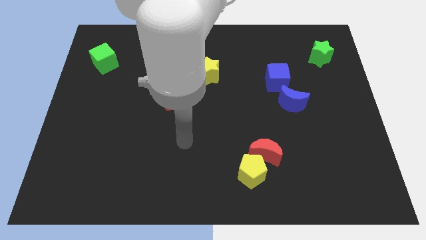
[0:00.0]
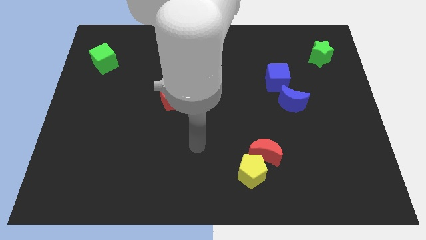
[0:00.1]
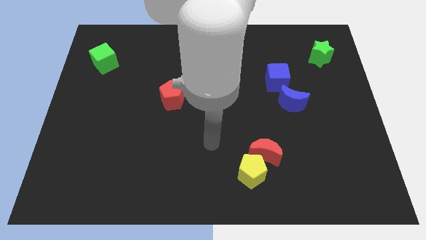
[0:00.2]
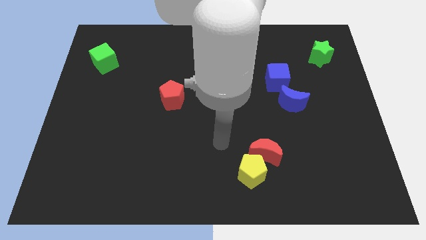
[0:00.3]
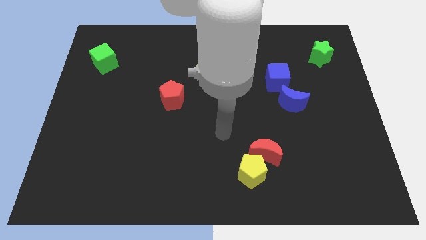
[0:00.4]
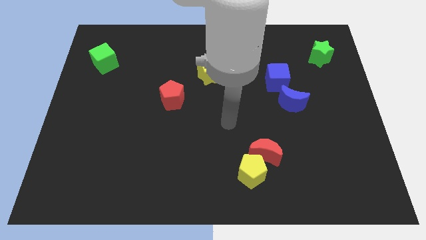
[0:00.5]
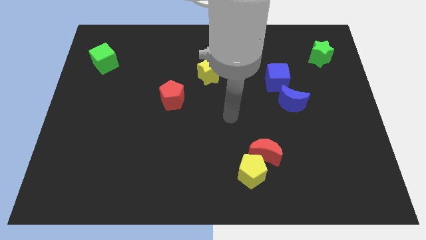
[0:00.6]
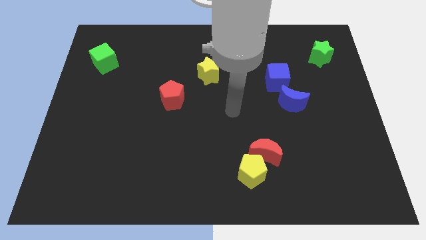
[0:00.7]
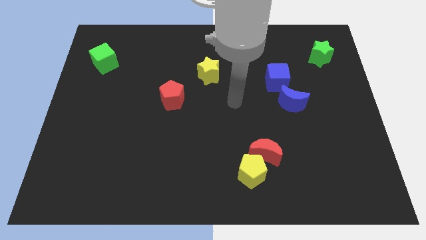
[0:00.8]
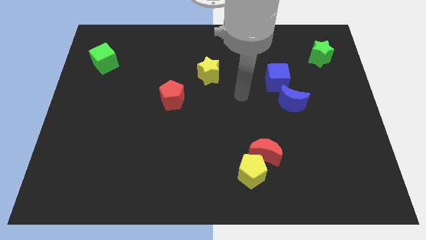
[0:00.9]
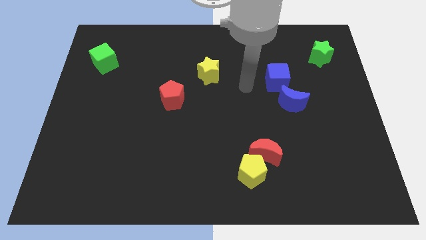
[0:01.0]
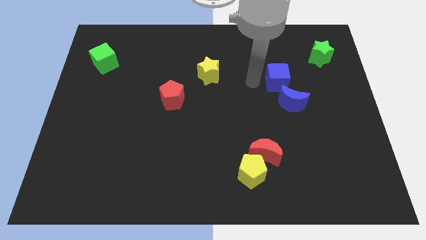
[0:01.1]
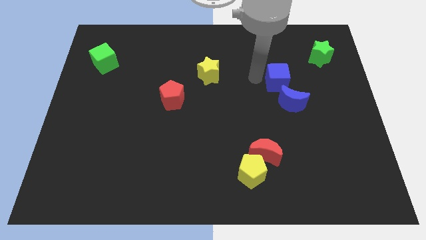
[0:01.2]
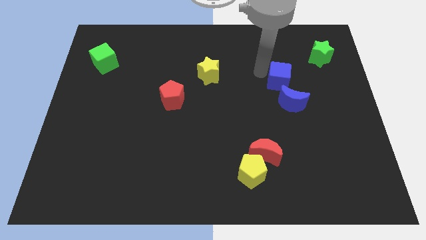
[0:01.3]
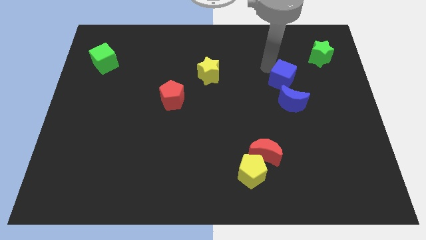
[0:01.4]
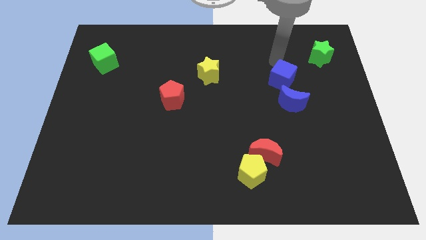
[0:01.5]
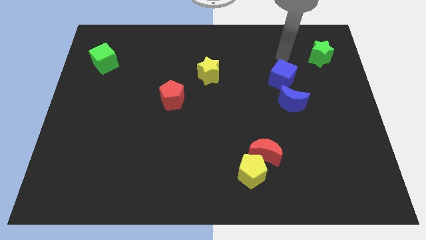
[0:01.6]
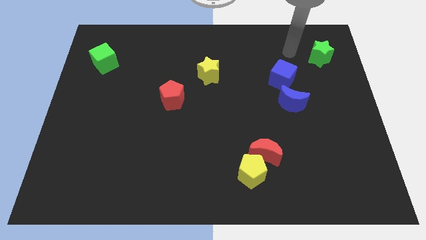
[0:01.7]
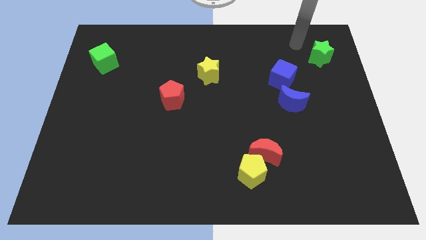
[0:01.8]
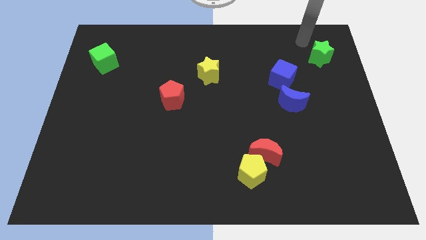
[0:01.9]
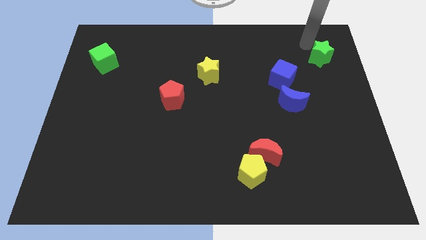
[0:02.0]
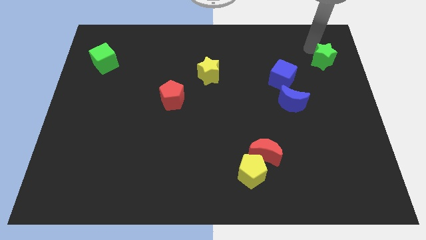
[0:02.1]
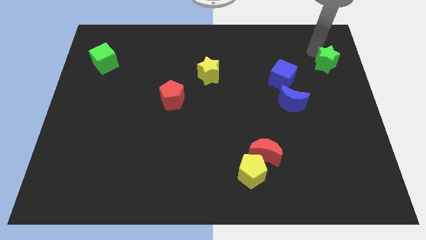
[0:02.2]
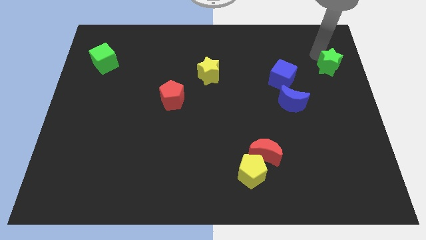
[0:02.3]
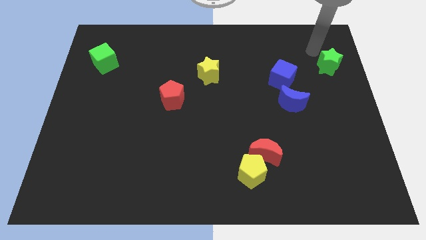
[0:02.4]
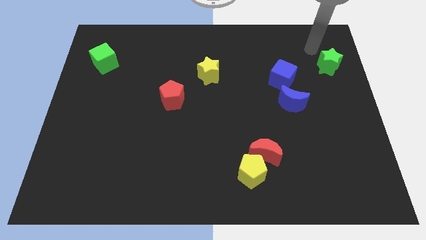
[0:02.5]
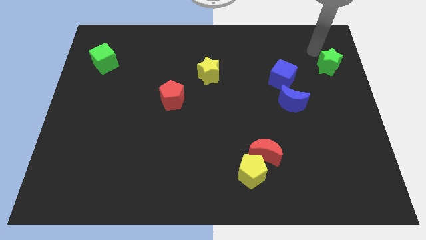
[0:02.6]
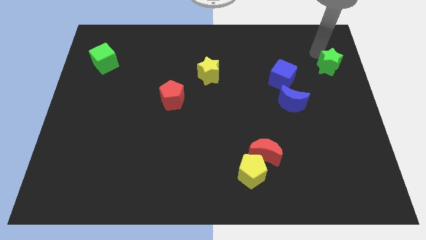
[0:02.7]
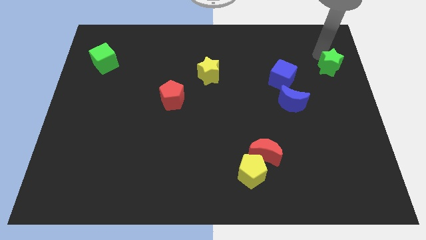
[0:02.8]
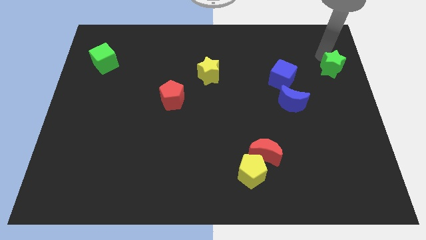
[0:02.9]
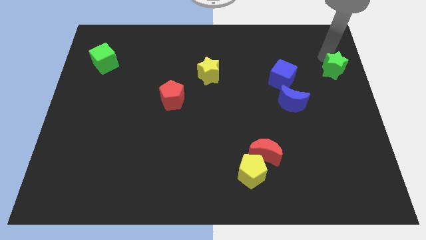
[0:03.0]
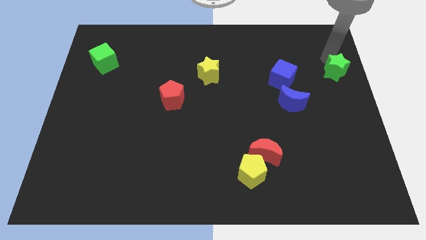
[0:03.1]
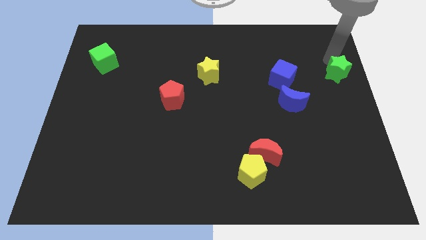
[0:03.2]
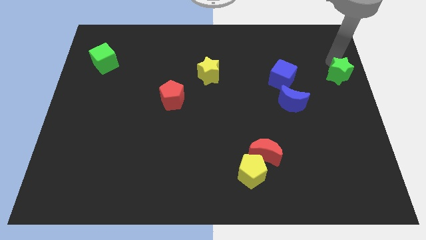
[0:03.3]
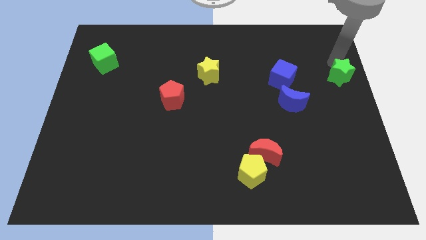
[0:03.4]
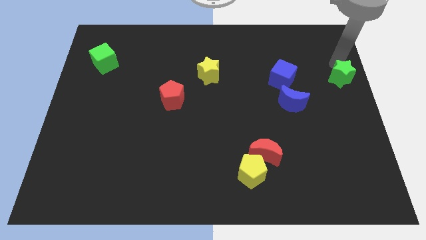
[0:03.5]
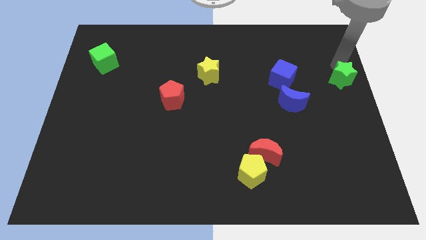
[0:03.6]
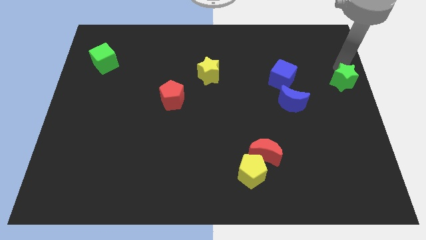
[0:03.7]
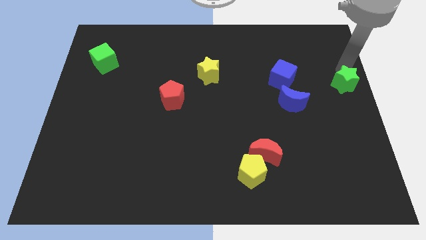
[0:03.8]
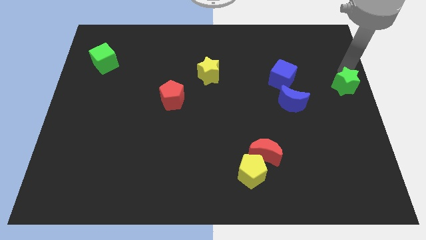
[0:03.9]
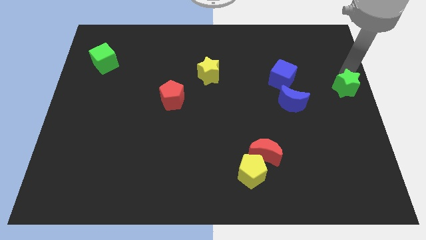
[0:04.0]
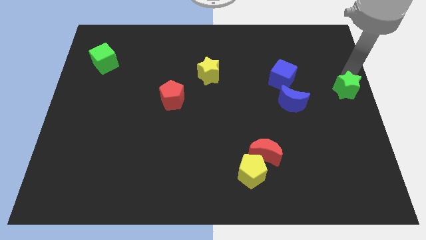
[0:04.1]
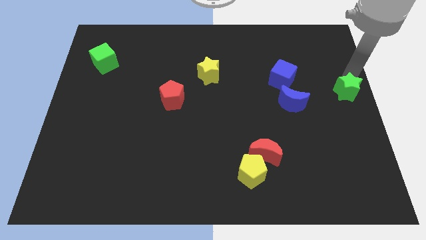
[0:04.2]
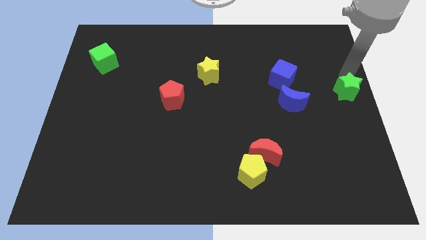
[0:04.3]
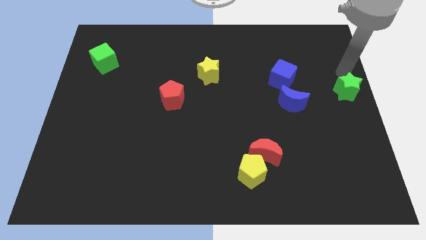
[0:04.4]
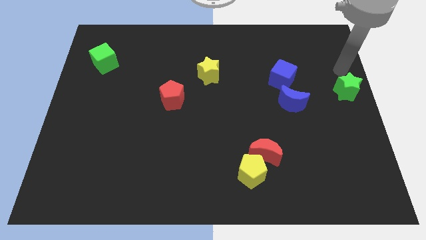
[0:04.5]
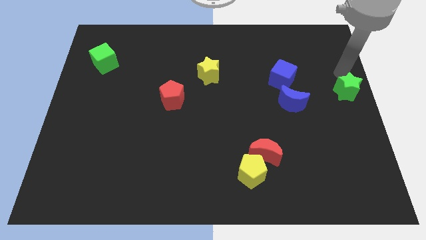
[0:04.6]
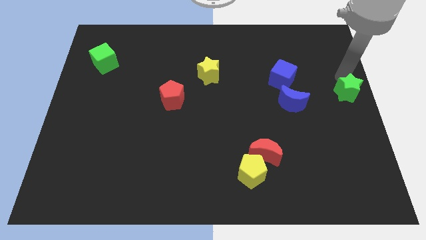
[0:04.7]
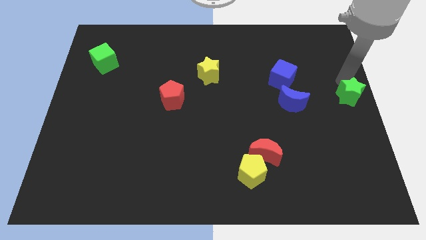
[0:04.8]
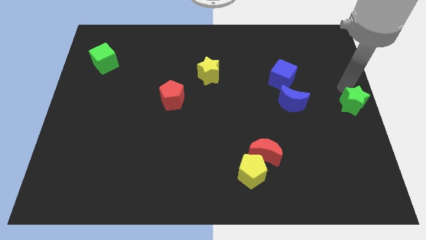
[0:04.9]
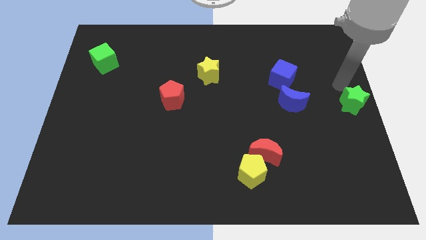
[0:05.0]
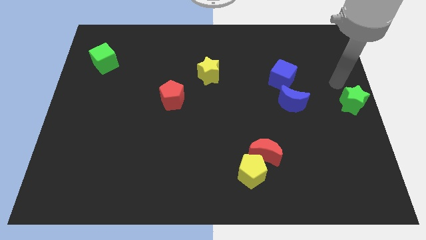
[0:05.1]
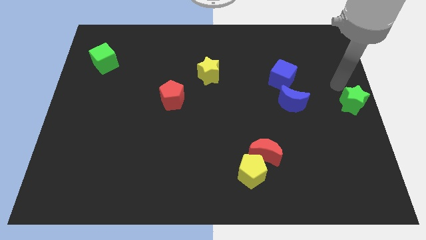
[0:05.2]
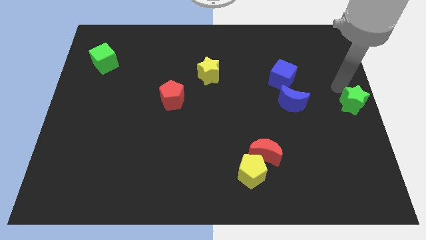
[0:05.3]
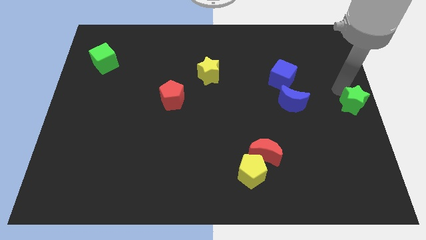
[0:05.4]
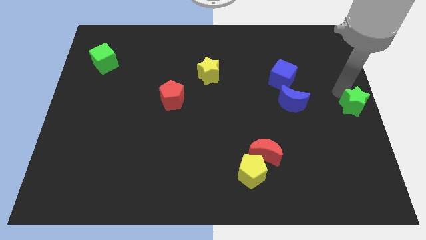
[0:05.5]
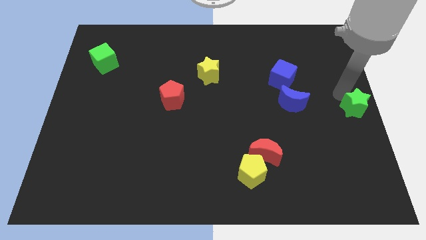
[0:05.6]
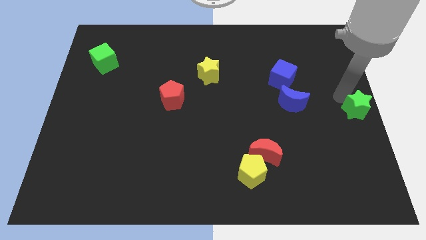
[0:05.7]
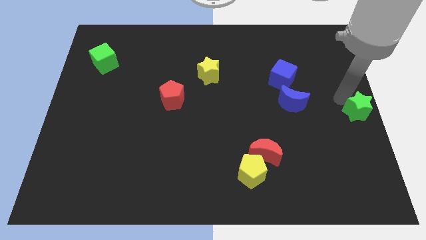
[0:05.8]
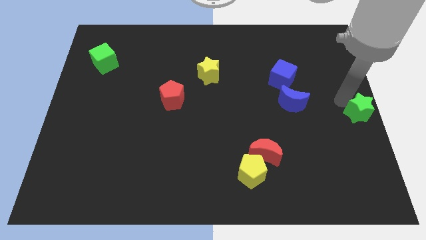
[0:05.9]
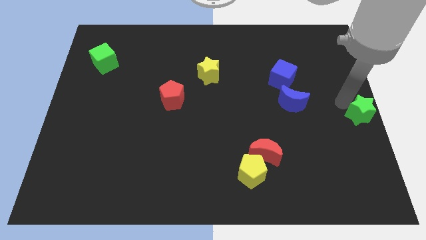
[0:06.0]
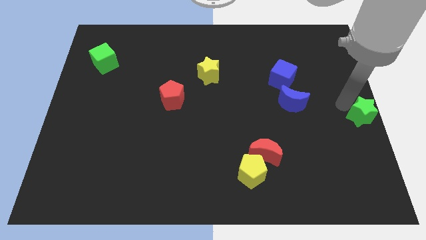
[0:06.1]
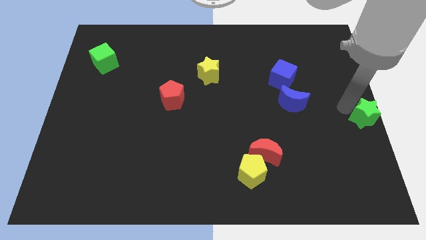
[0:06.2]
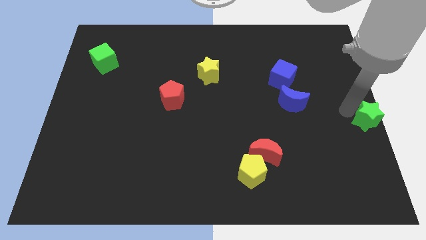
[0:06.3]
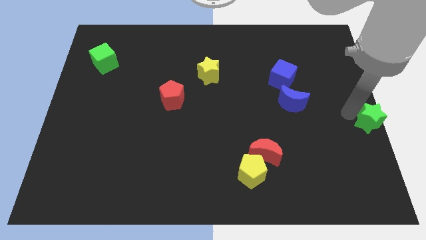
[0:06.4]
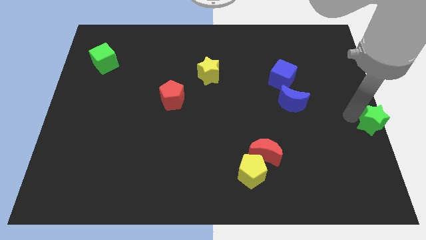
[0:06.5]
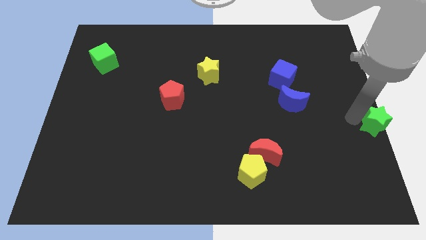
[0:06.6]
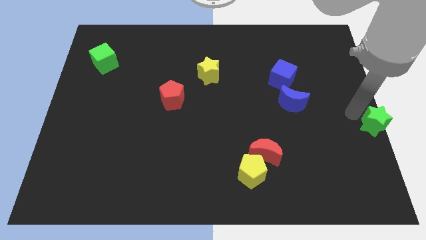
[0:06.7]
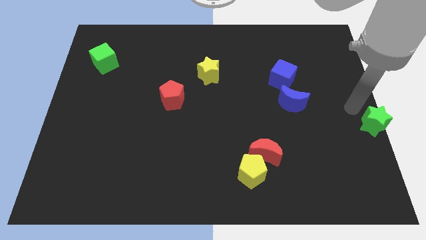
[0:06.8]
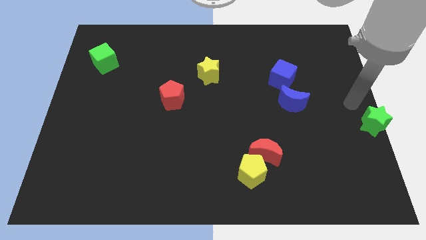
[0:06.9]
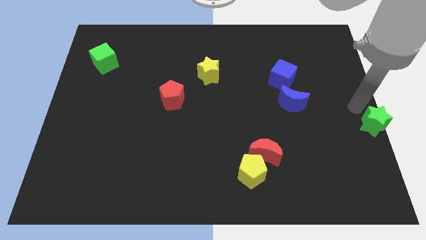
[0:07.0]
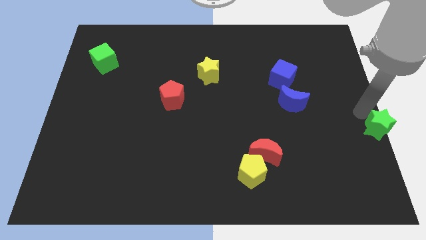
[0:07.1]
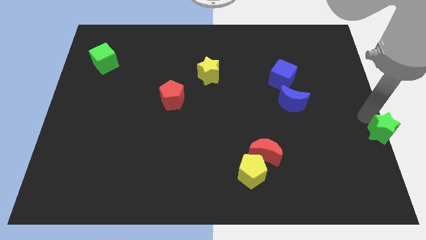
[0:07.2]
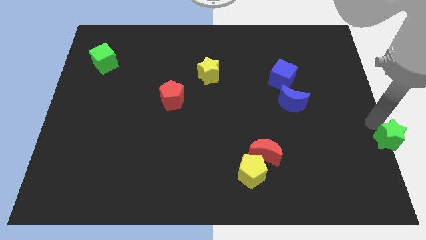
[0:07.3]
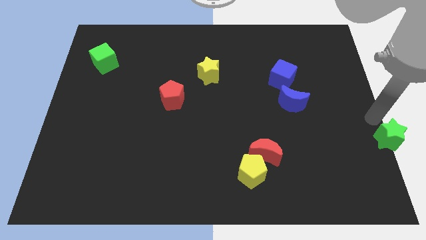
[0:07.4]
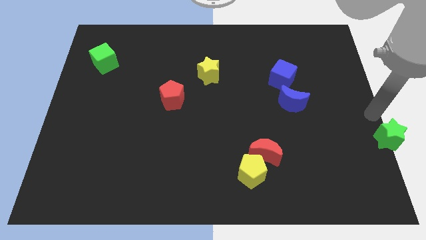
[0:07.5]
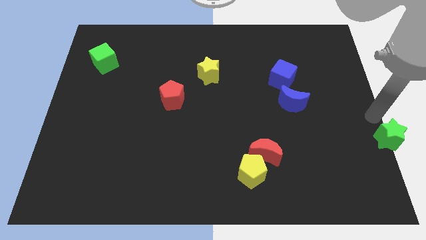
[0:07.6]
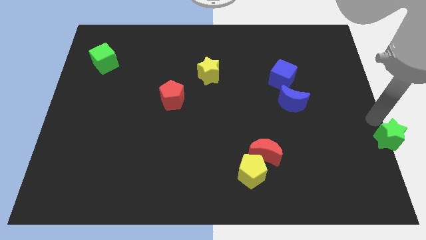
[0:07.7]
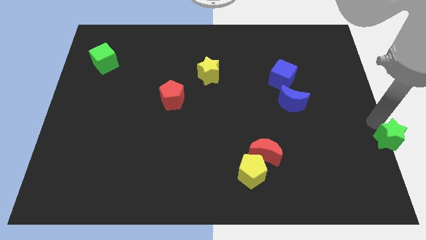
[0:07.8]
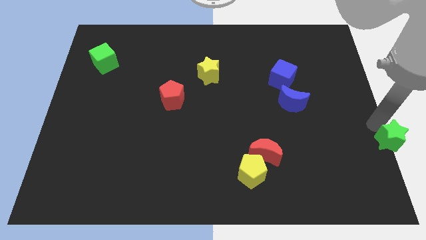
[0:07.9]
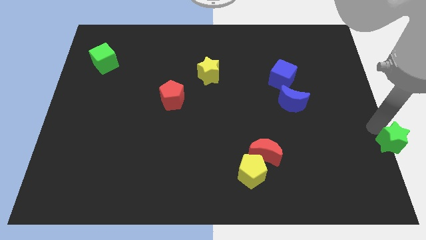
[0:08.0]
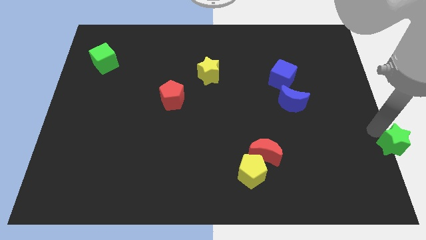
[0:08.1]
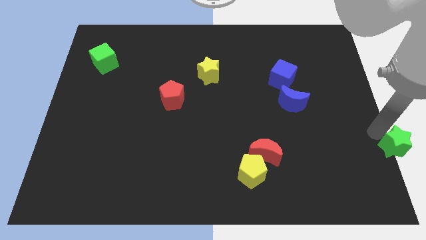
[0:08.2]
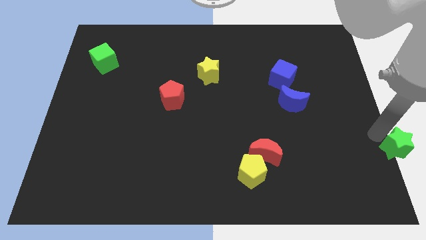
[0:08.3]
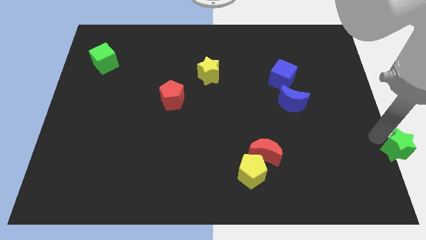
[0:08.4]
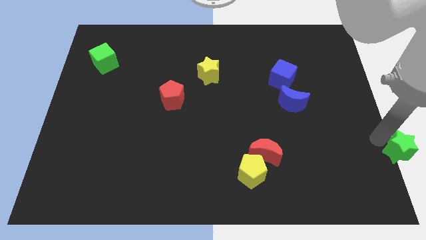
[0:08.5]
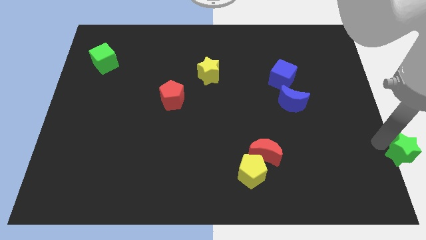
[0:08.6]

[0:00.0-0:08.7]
slide the green star to the lower right corner
